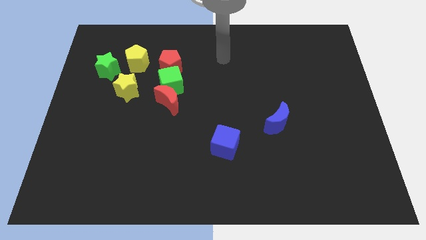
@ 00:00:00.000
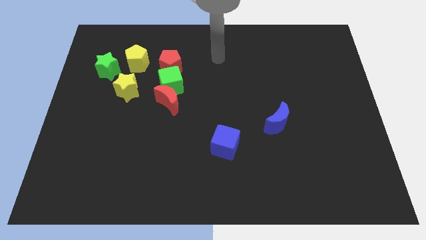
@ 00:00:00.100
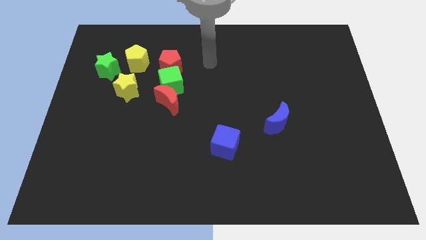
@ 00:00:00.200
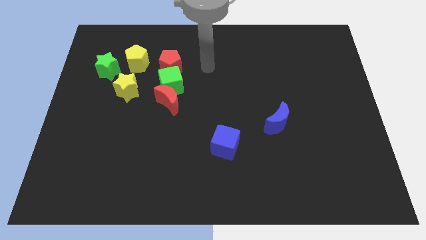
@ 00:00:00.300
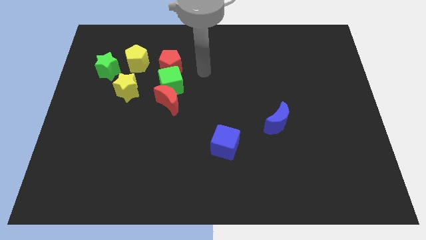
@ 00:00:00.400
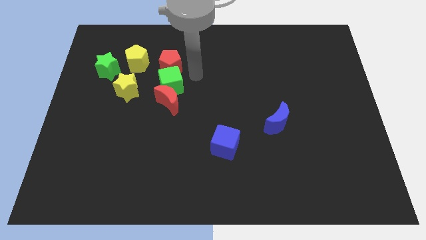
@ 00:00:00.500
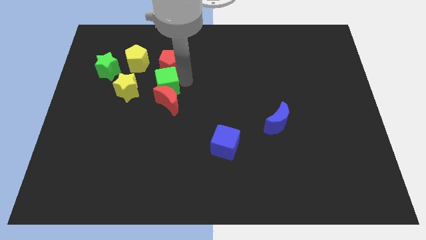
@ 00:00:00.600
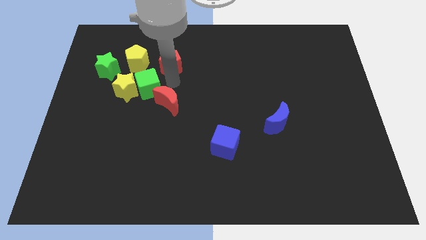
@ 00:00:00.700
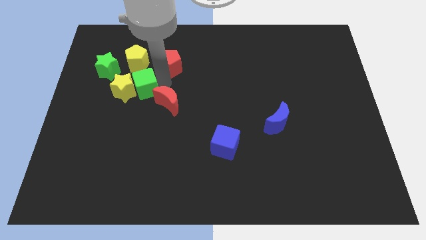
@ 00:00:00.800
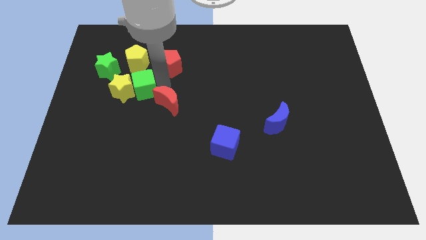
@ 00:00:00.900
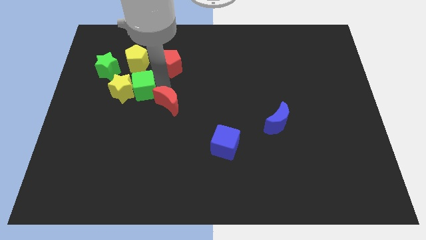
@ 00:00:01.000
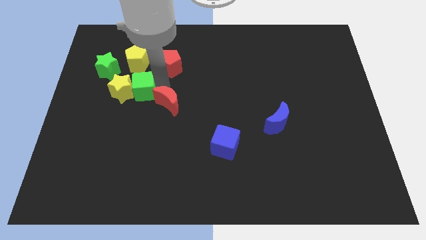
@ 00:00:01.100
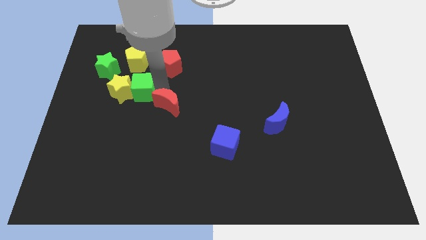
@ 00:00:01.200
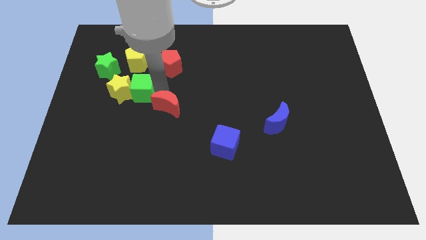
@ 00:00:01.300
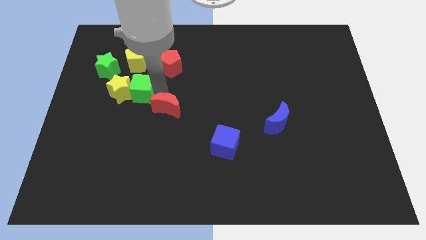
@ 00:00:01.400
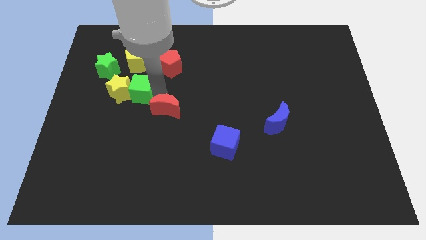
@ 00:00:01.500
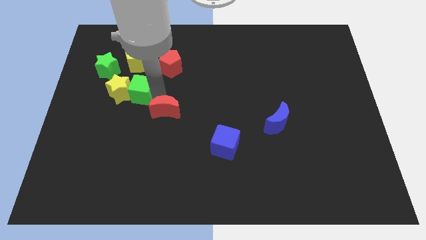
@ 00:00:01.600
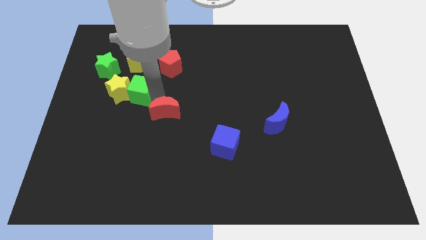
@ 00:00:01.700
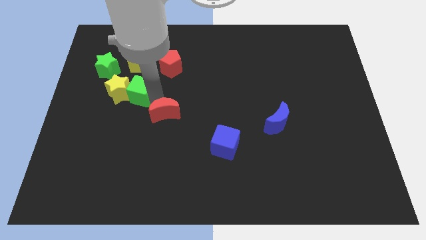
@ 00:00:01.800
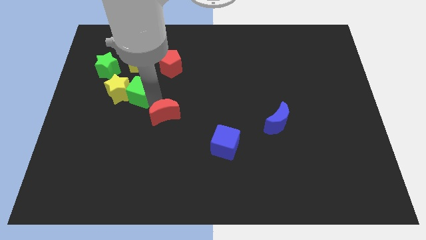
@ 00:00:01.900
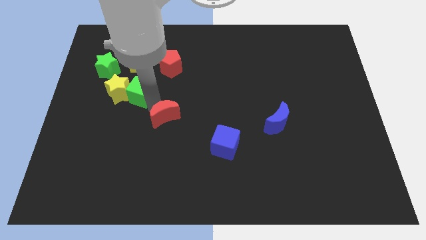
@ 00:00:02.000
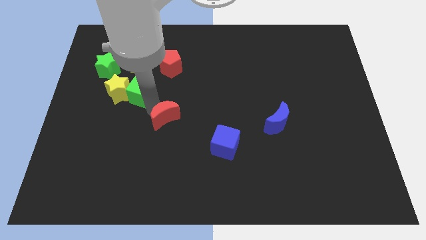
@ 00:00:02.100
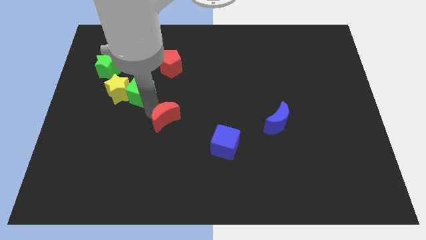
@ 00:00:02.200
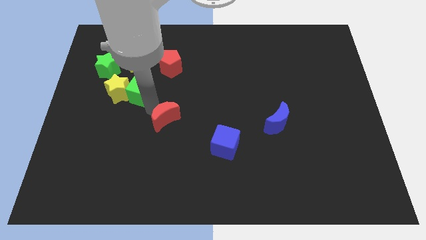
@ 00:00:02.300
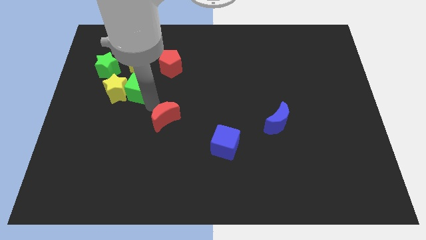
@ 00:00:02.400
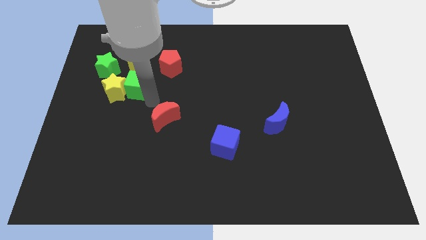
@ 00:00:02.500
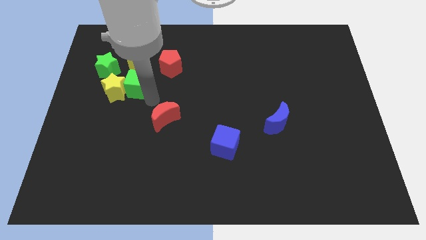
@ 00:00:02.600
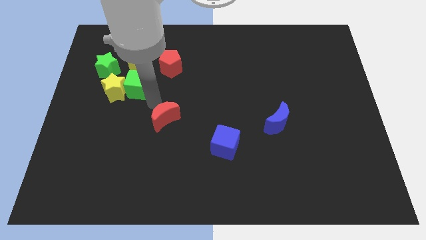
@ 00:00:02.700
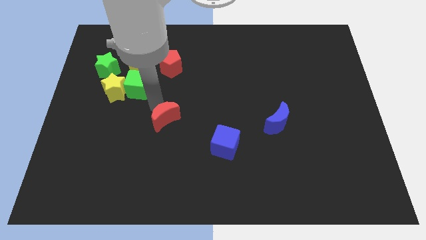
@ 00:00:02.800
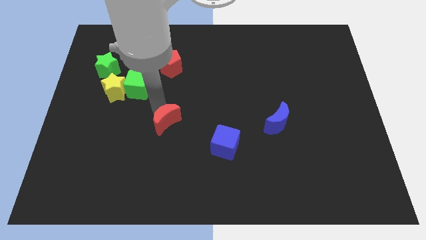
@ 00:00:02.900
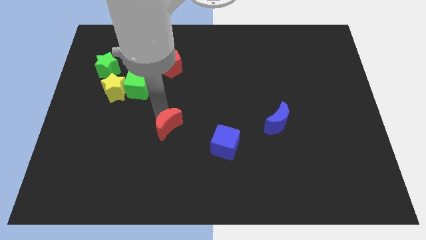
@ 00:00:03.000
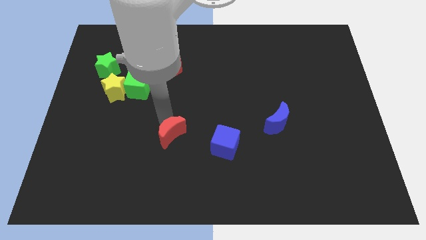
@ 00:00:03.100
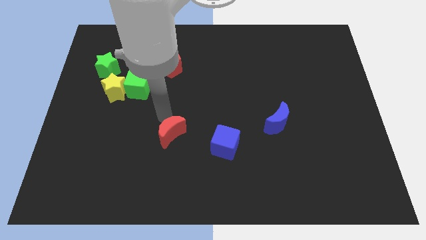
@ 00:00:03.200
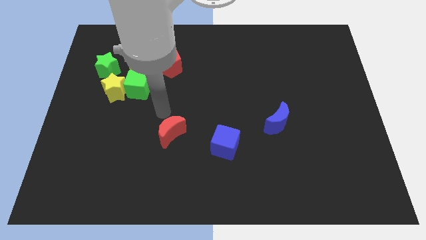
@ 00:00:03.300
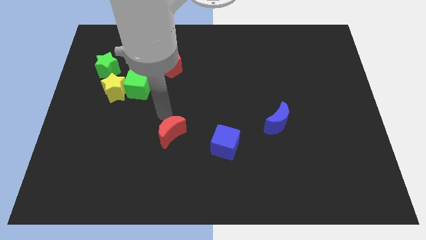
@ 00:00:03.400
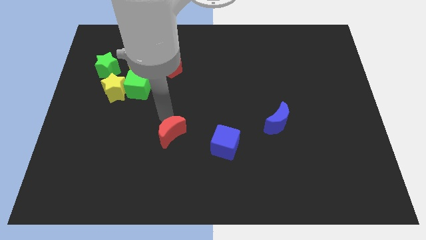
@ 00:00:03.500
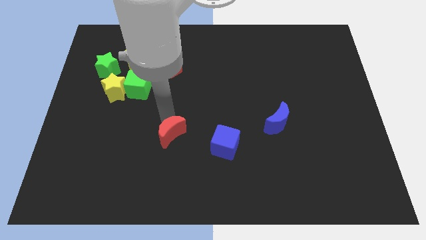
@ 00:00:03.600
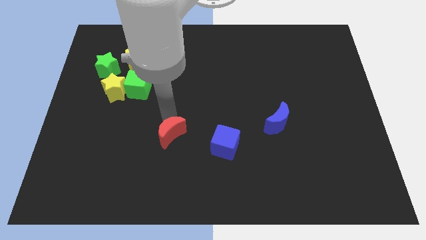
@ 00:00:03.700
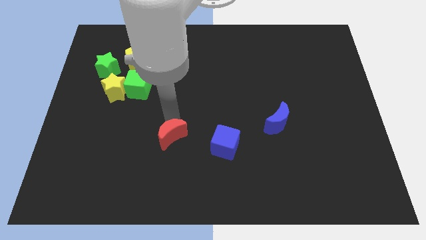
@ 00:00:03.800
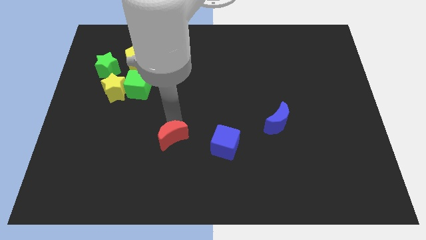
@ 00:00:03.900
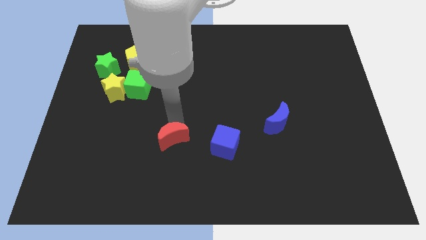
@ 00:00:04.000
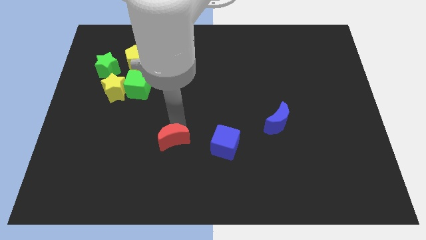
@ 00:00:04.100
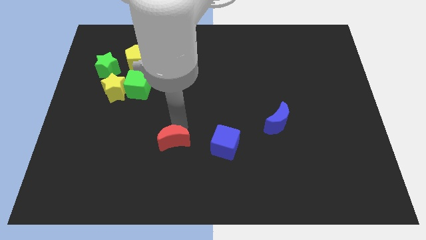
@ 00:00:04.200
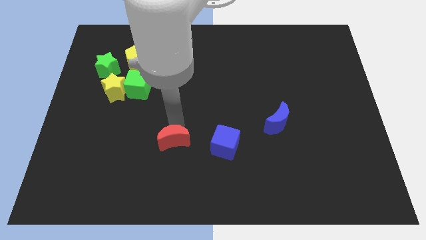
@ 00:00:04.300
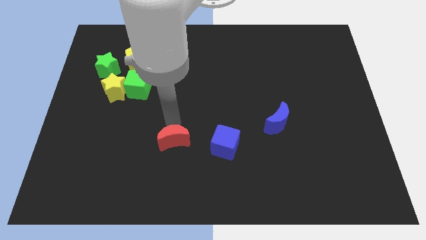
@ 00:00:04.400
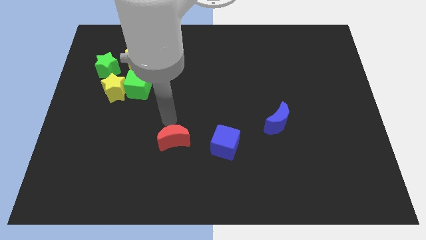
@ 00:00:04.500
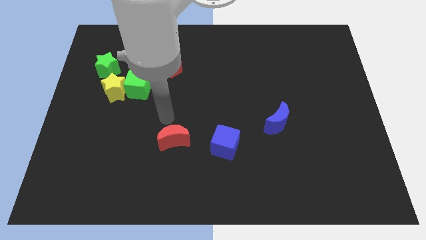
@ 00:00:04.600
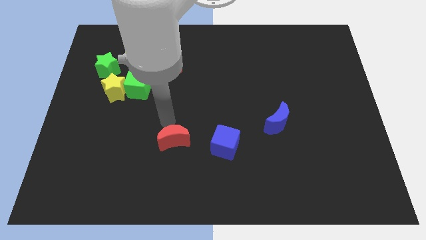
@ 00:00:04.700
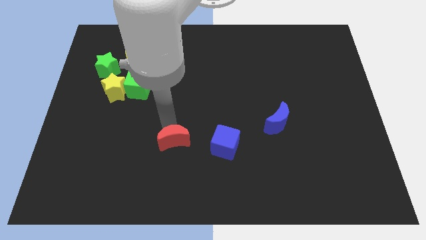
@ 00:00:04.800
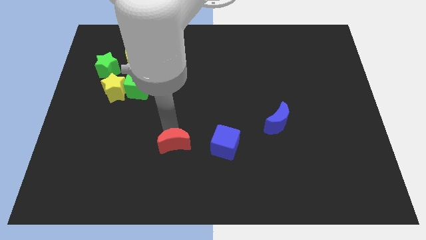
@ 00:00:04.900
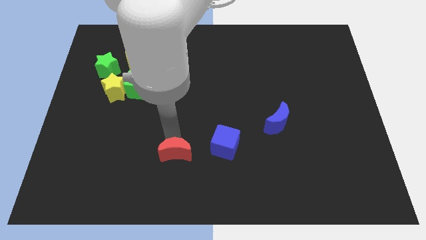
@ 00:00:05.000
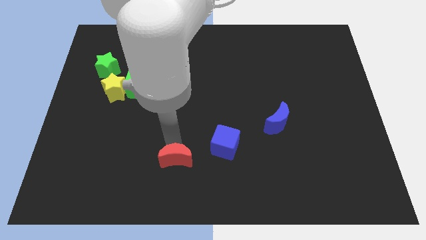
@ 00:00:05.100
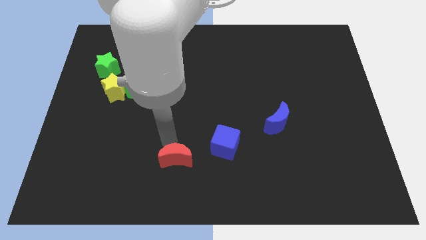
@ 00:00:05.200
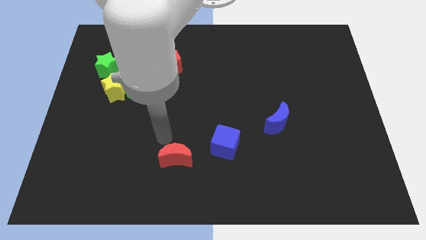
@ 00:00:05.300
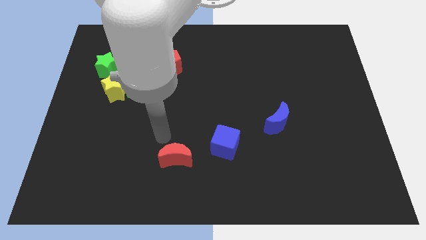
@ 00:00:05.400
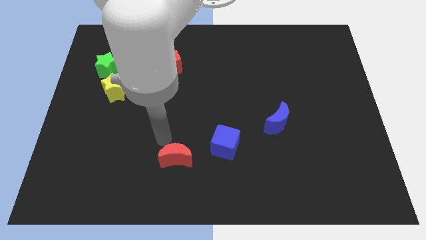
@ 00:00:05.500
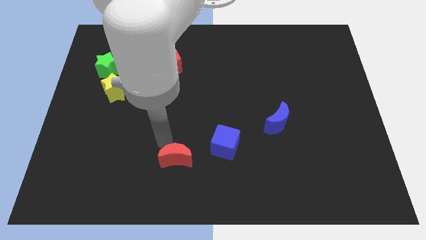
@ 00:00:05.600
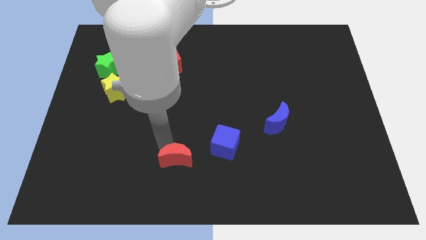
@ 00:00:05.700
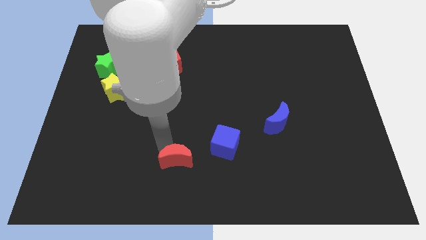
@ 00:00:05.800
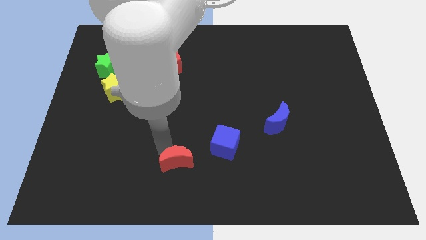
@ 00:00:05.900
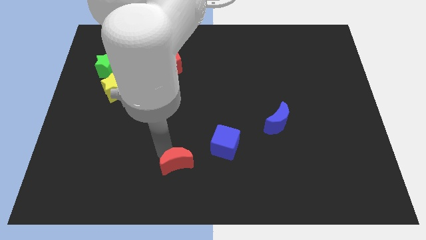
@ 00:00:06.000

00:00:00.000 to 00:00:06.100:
put the red moon to the bottom
